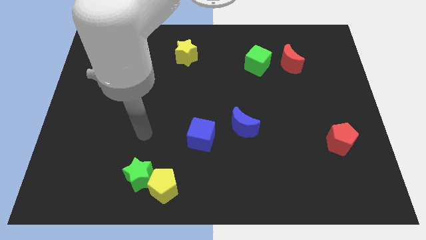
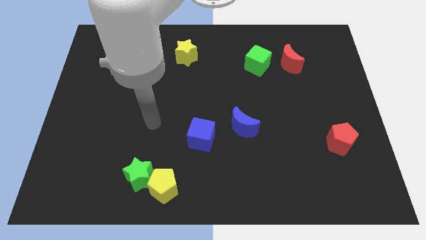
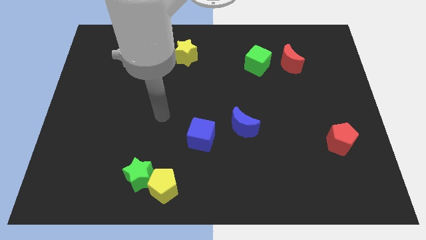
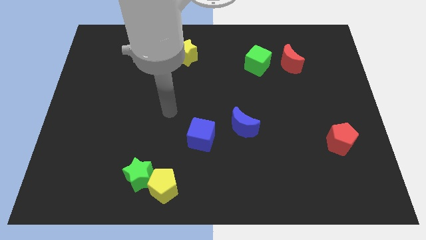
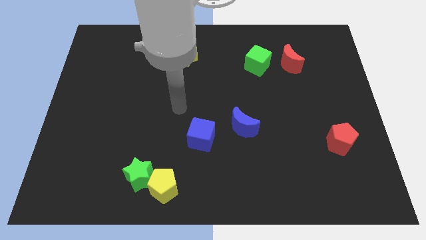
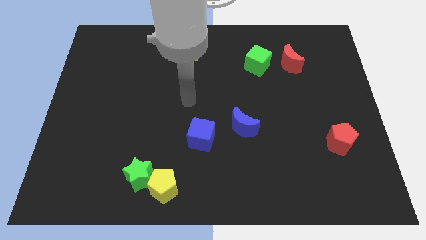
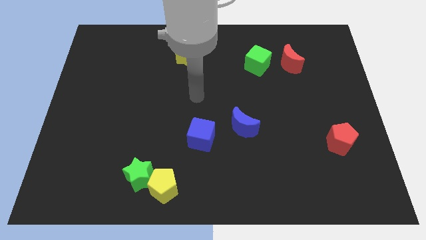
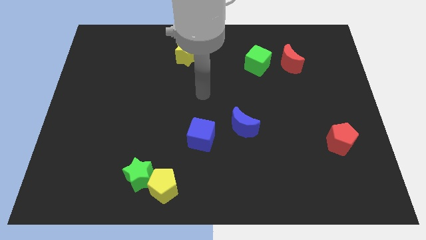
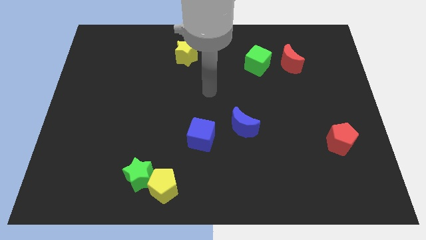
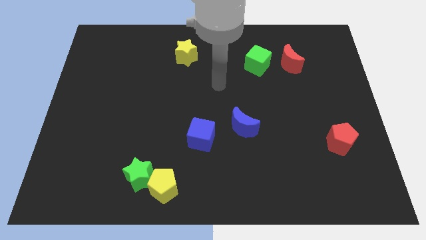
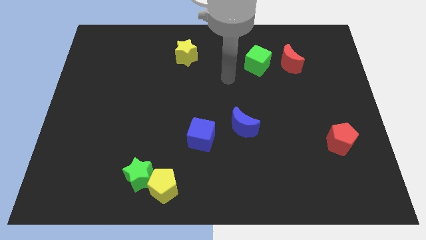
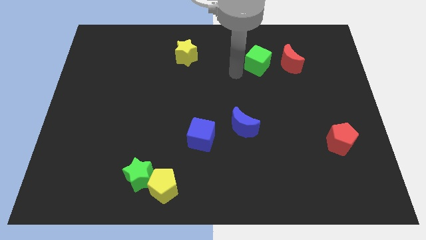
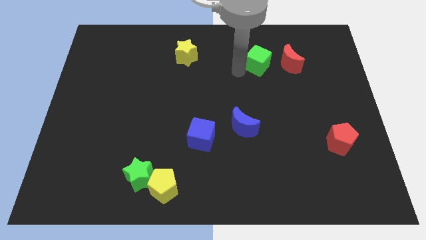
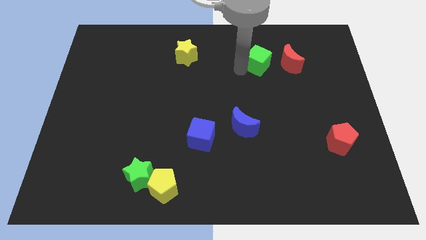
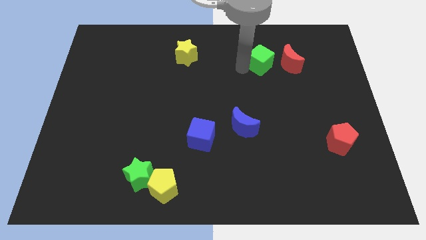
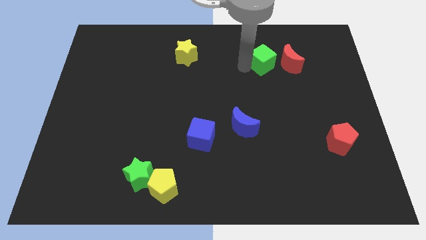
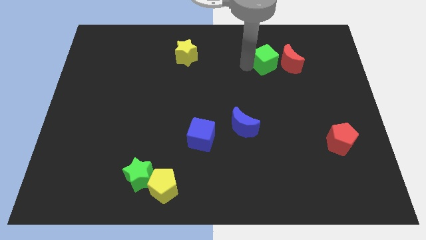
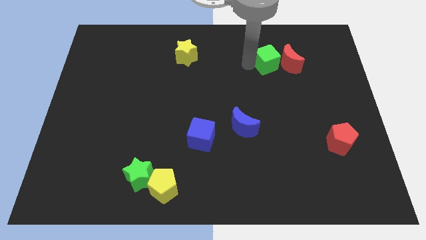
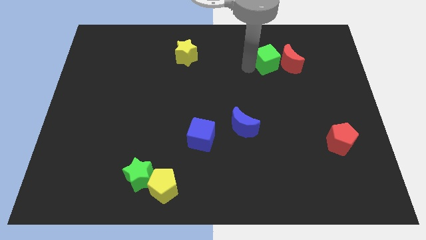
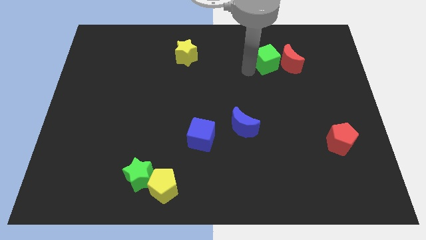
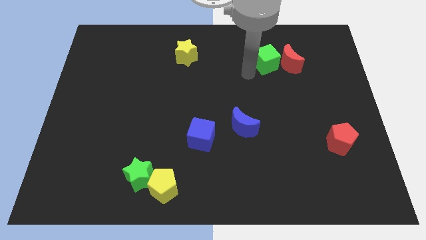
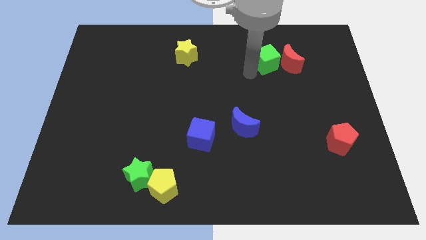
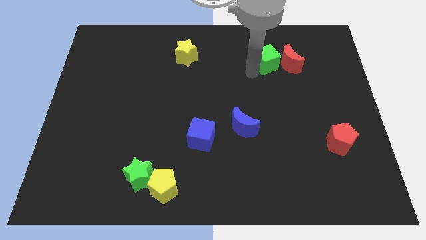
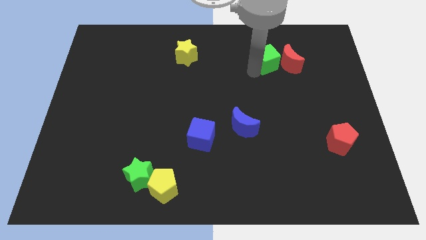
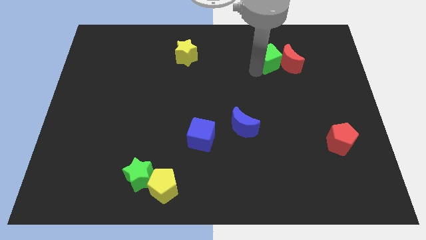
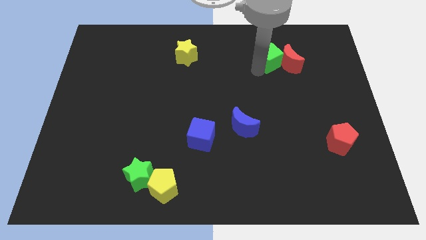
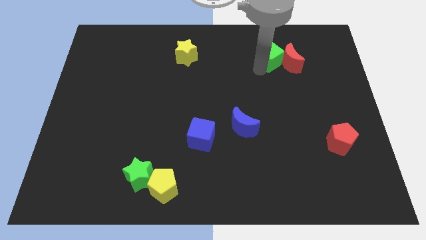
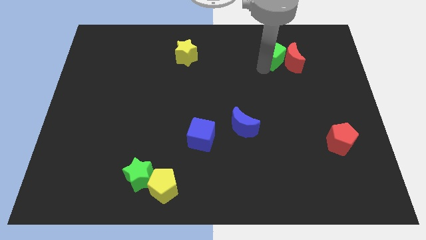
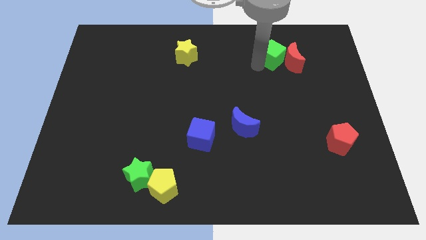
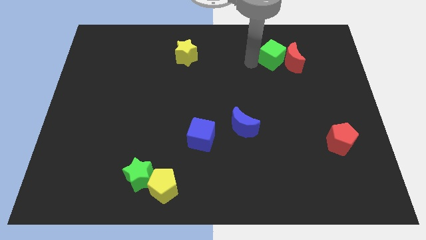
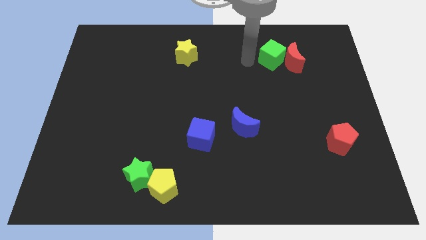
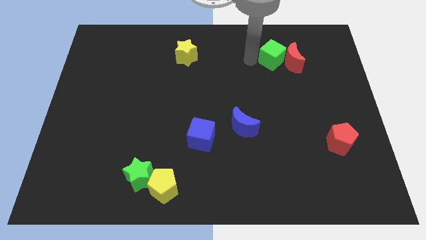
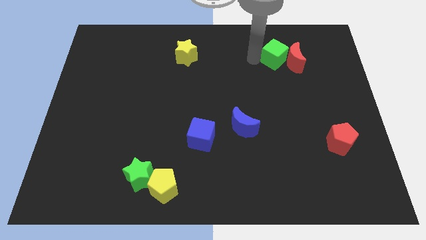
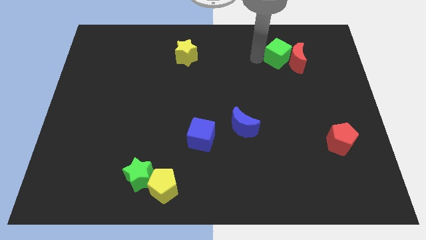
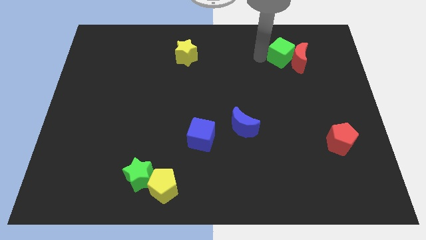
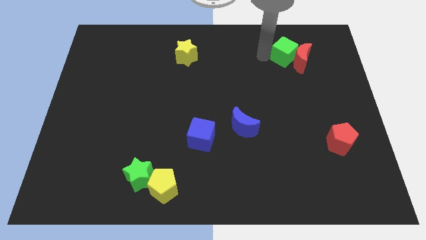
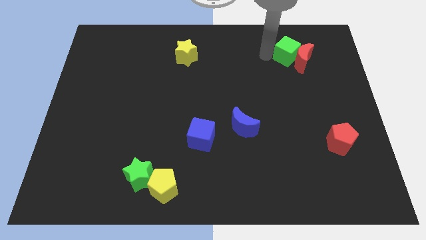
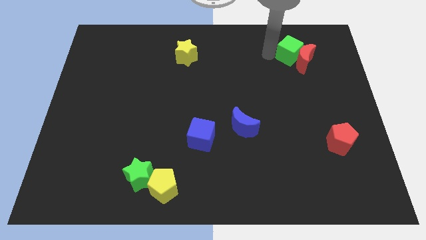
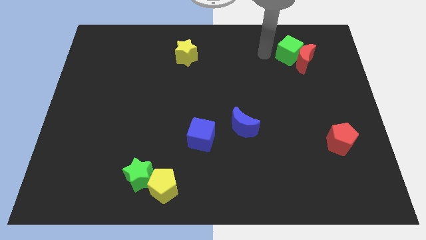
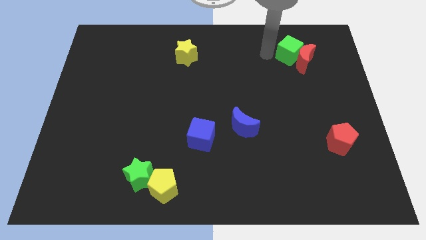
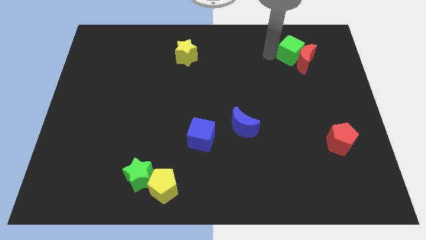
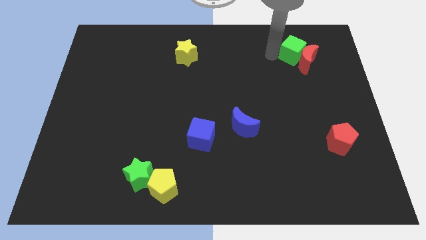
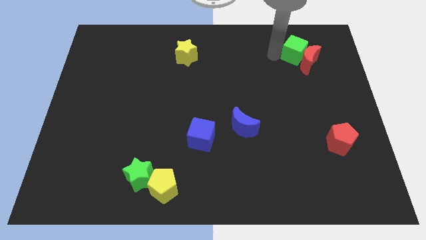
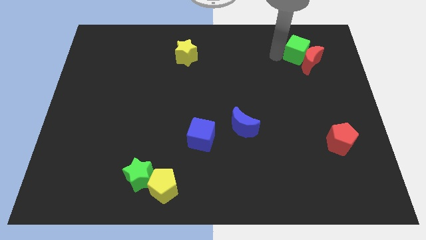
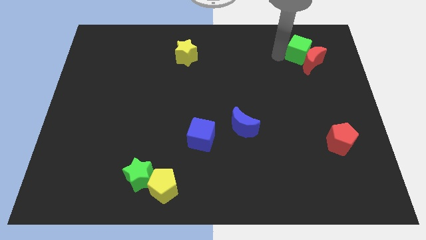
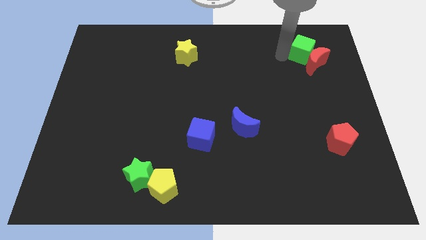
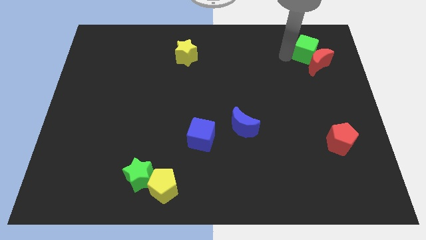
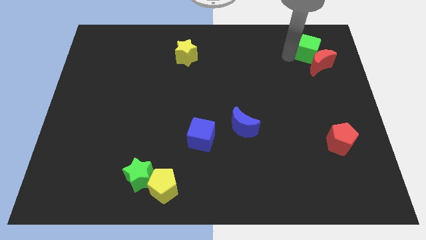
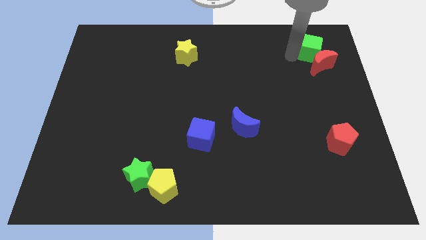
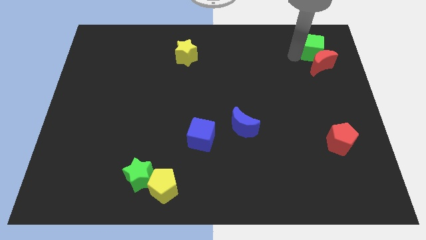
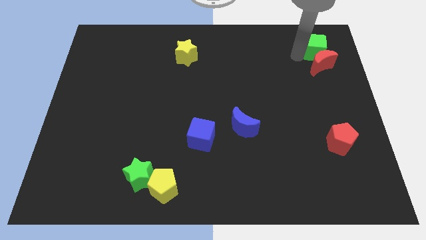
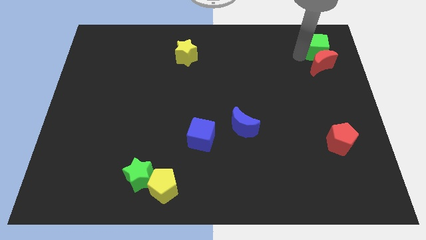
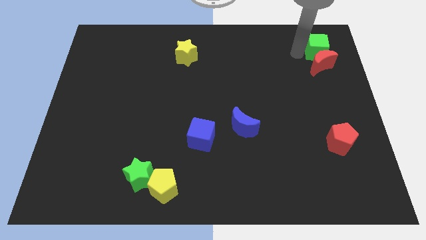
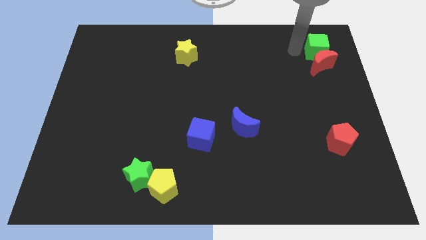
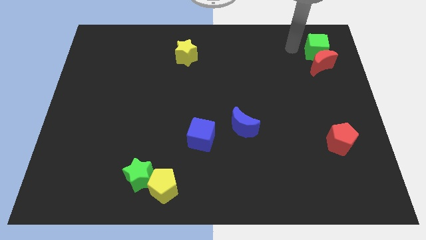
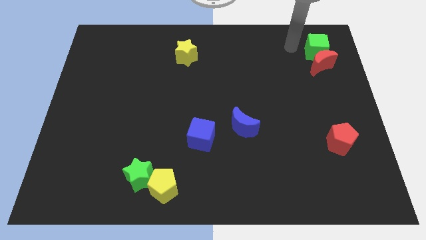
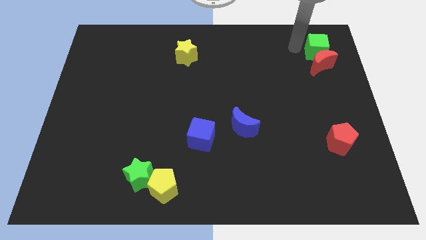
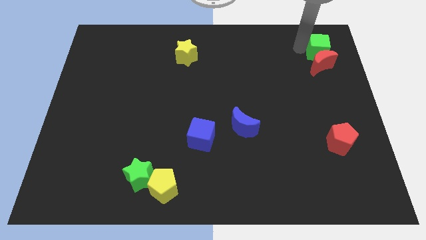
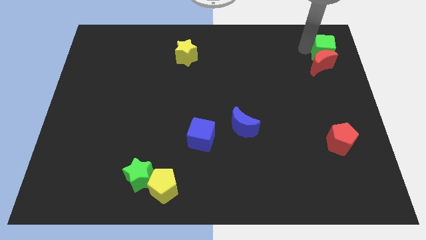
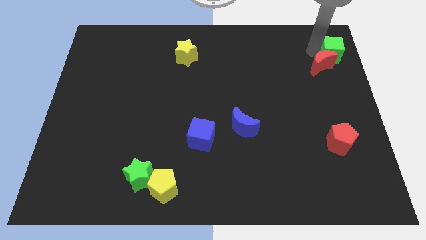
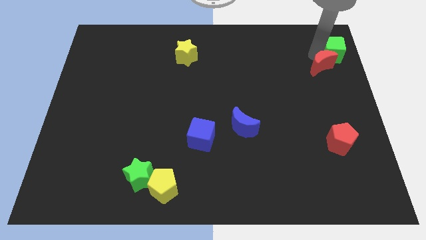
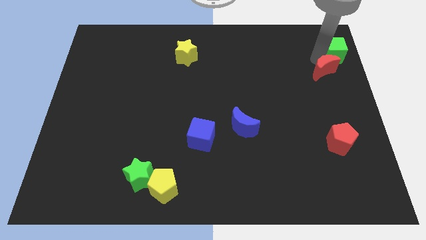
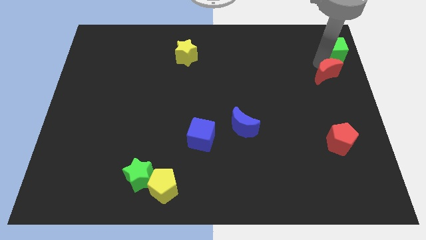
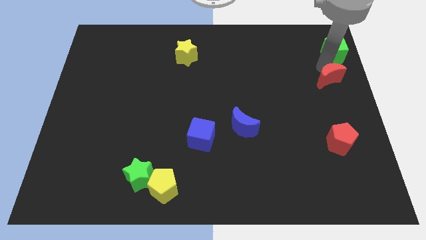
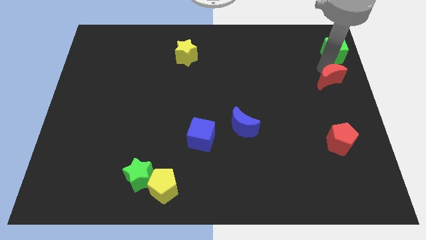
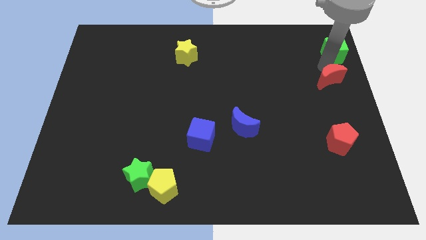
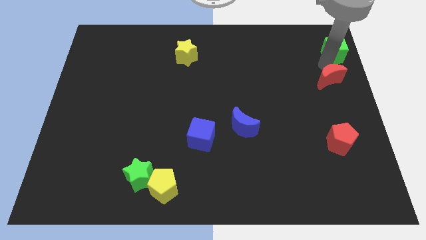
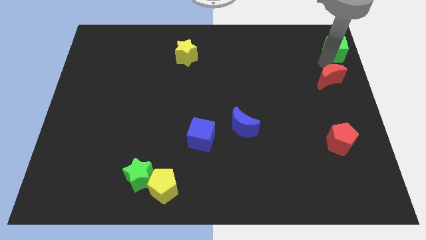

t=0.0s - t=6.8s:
slide the green cube to the upper right corner
